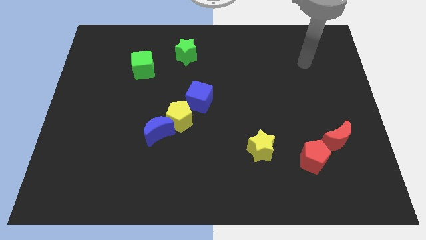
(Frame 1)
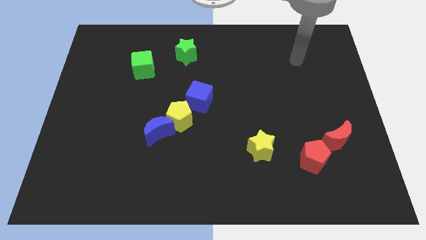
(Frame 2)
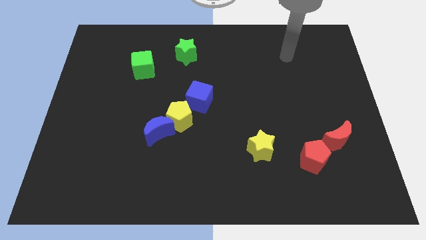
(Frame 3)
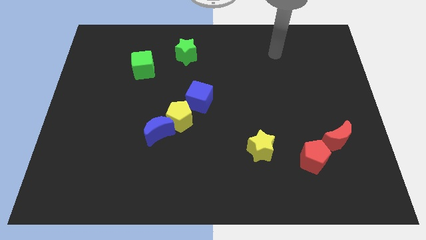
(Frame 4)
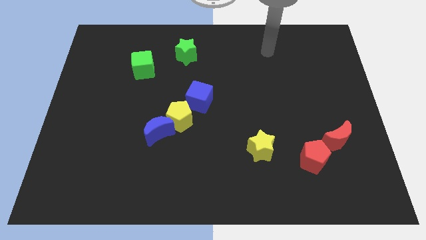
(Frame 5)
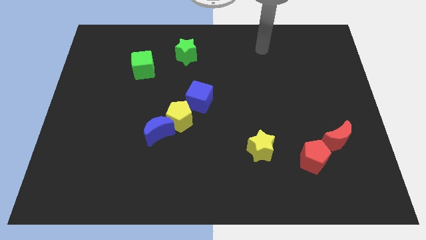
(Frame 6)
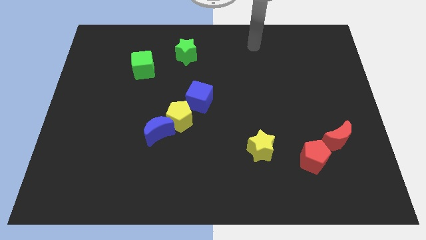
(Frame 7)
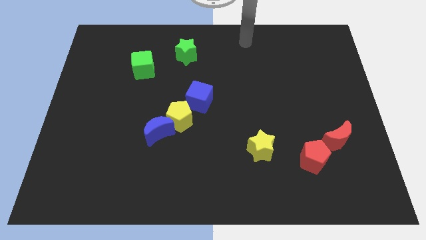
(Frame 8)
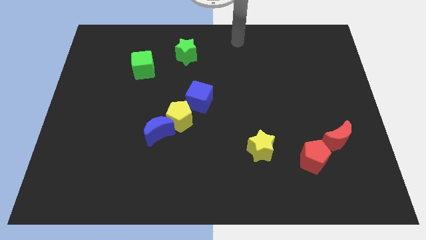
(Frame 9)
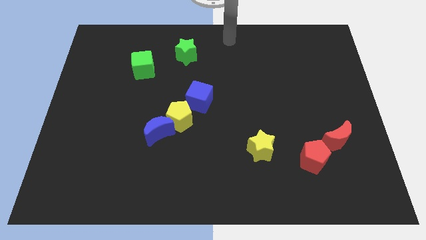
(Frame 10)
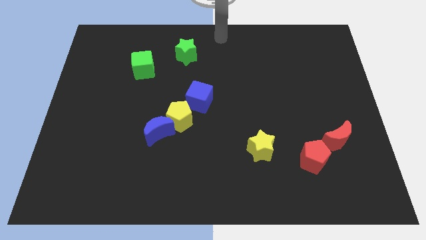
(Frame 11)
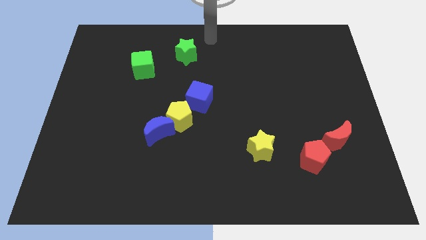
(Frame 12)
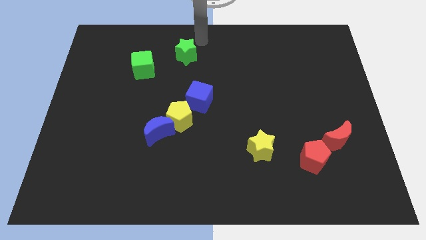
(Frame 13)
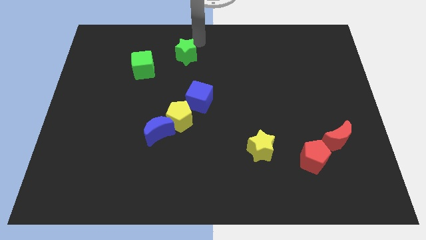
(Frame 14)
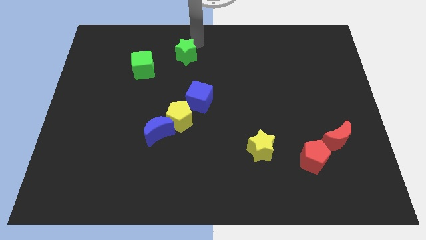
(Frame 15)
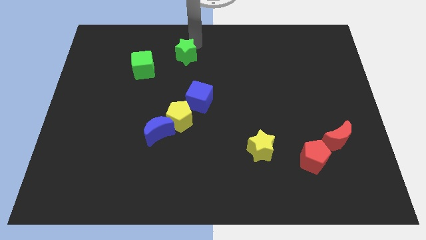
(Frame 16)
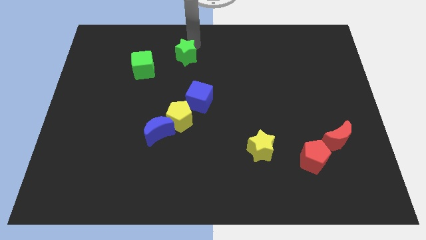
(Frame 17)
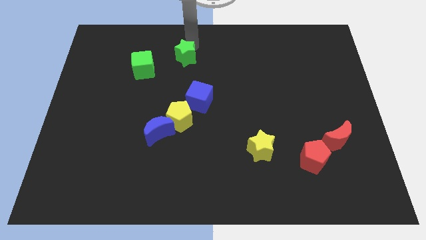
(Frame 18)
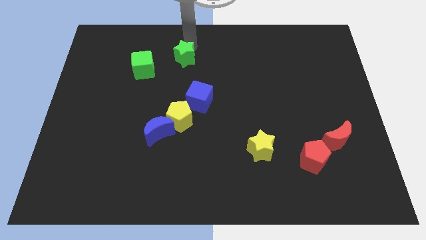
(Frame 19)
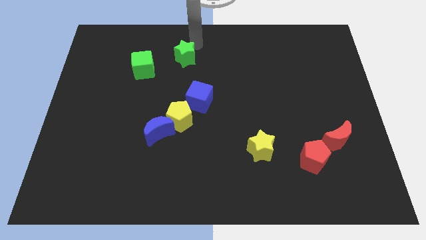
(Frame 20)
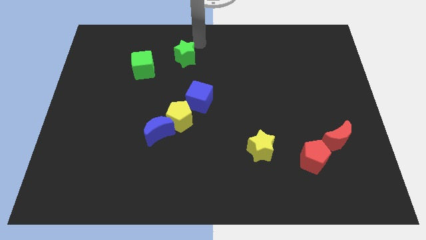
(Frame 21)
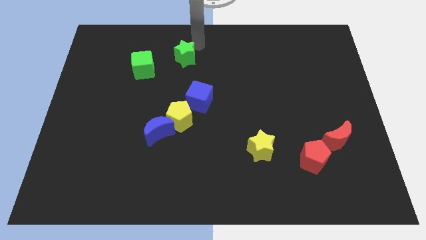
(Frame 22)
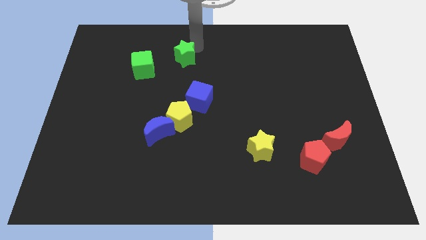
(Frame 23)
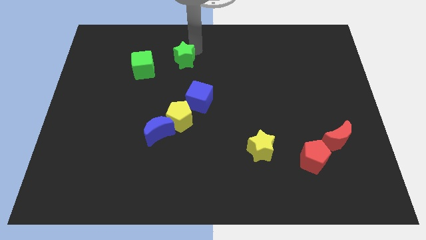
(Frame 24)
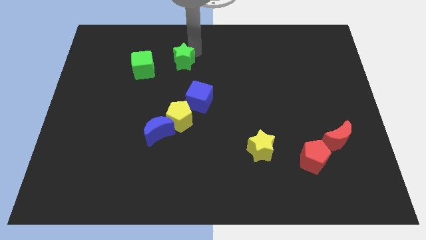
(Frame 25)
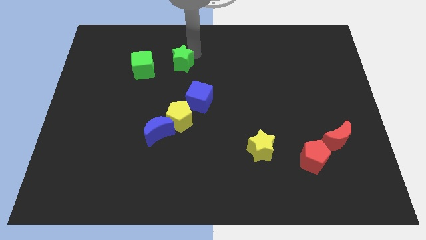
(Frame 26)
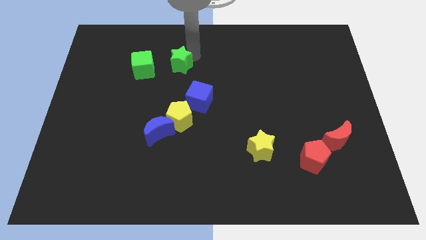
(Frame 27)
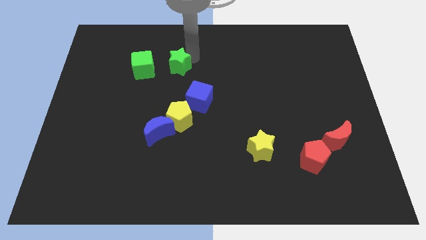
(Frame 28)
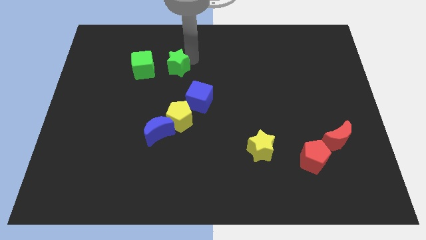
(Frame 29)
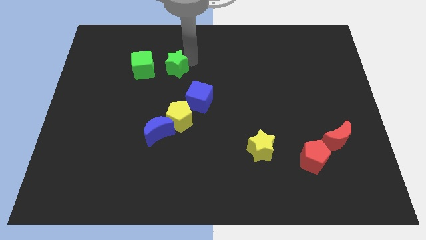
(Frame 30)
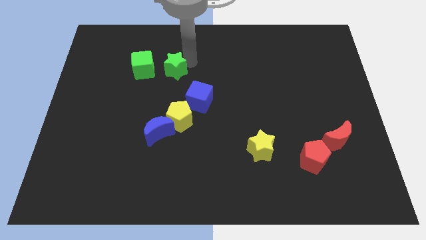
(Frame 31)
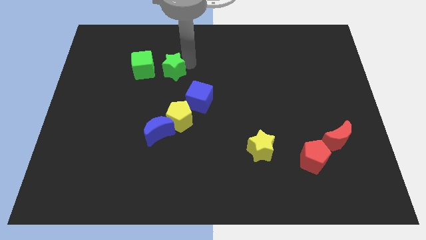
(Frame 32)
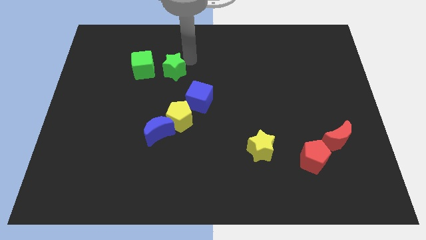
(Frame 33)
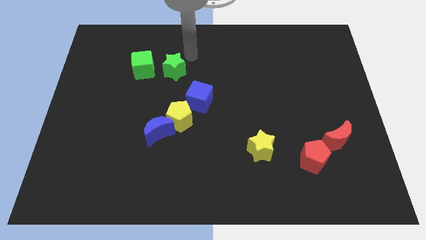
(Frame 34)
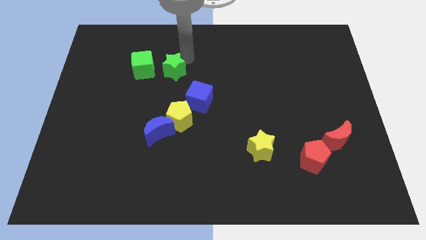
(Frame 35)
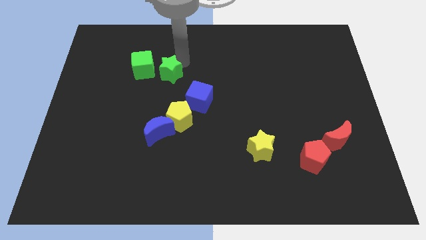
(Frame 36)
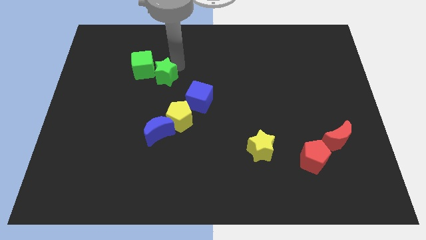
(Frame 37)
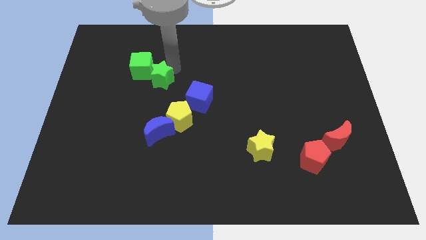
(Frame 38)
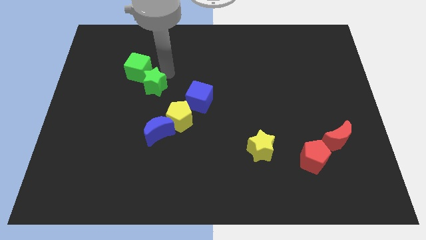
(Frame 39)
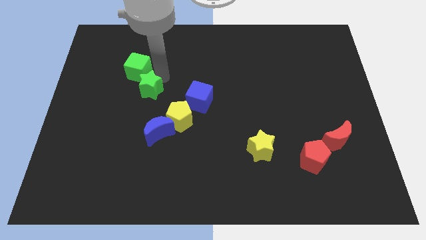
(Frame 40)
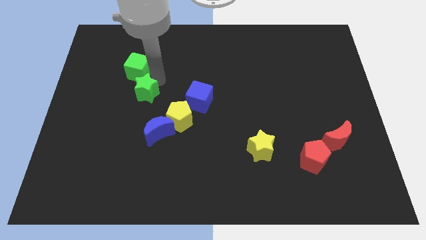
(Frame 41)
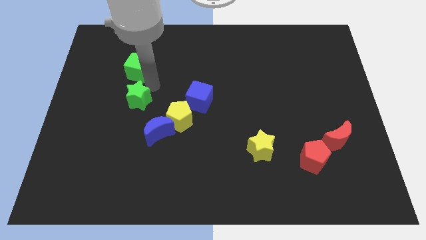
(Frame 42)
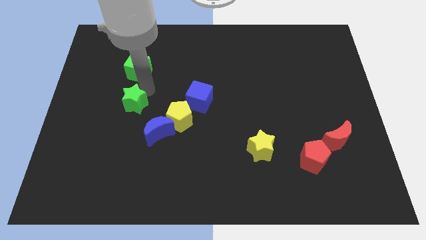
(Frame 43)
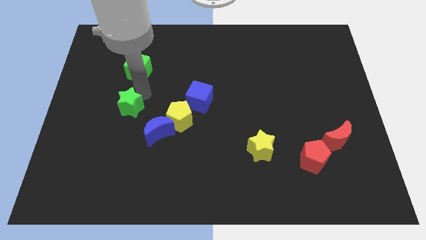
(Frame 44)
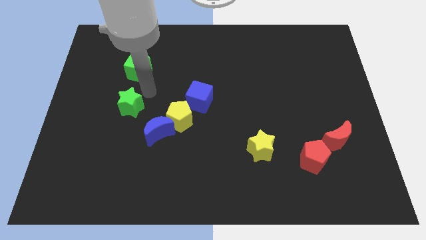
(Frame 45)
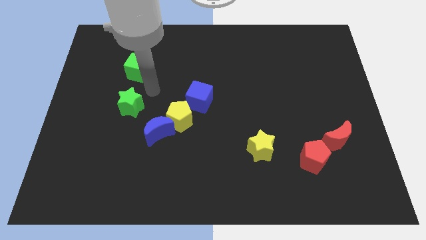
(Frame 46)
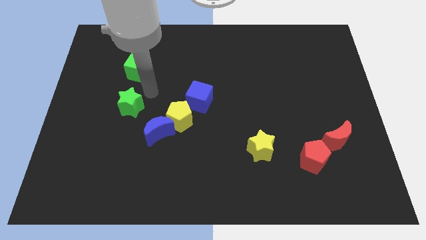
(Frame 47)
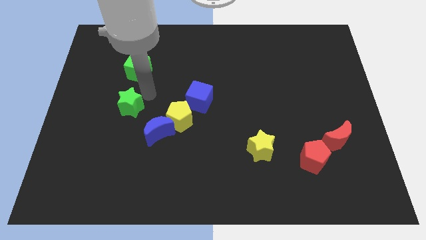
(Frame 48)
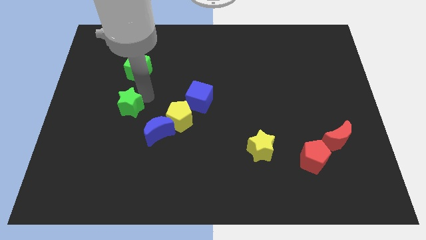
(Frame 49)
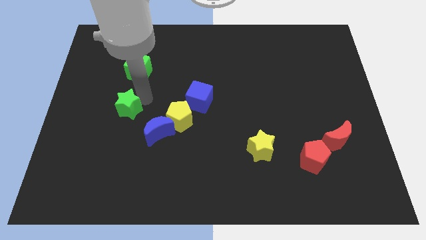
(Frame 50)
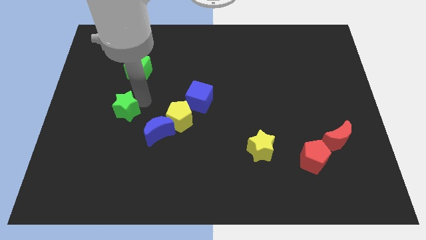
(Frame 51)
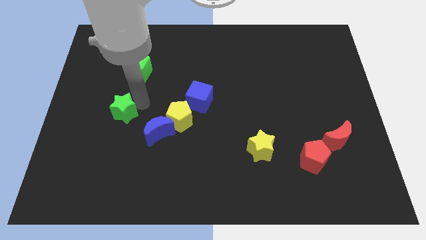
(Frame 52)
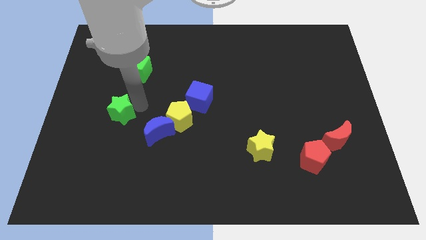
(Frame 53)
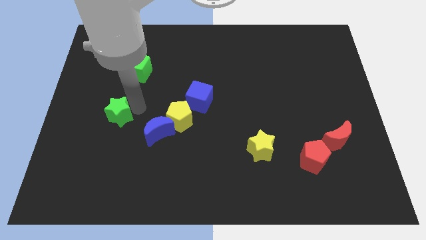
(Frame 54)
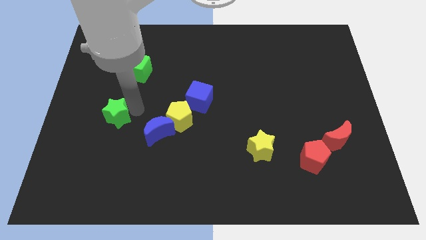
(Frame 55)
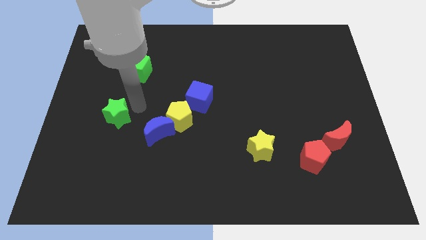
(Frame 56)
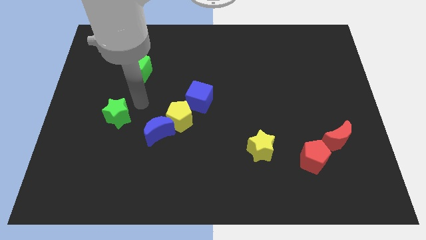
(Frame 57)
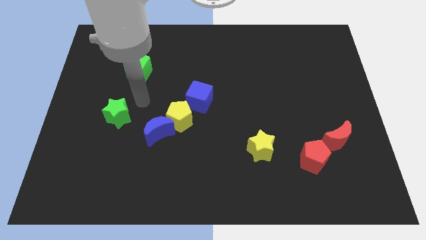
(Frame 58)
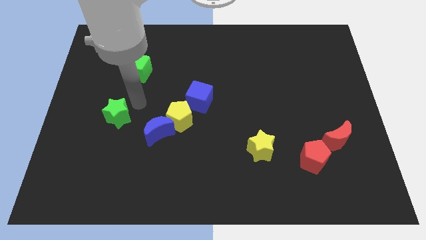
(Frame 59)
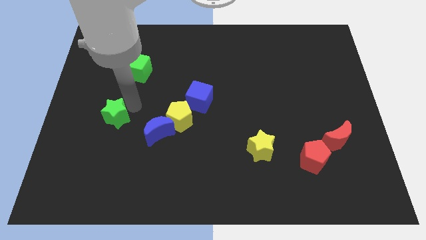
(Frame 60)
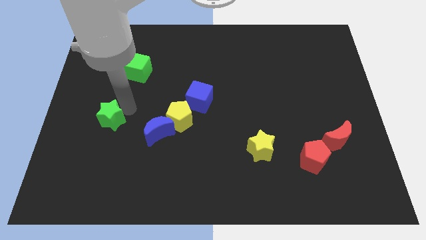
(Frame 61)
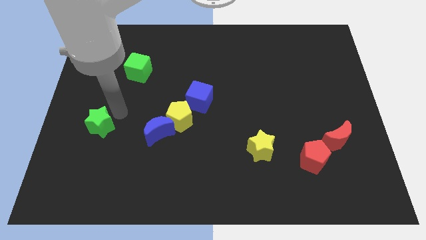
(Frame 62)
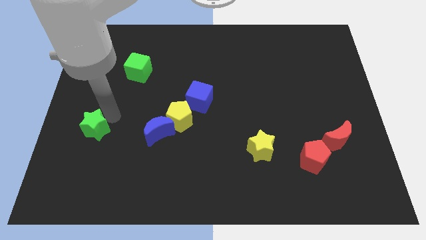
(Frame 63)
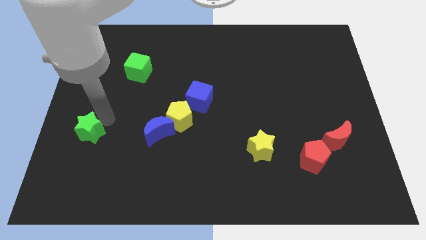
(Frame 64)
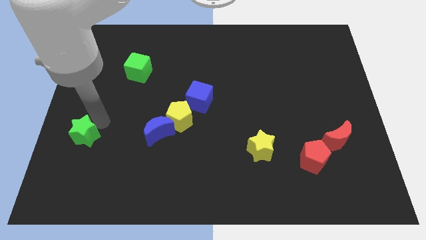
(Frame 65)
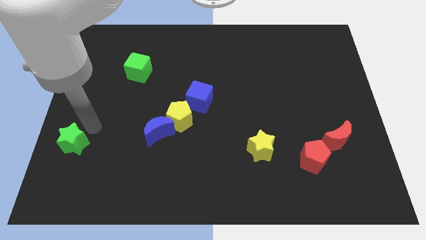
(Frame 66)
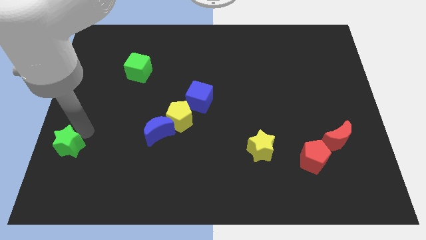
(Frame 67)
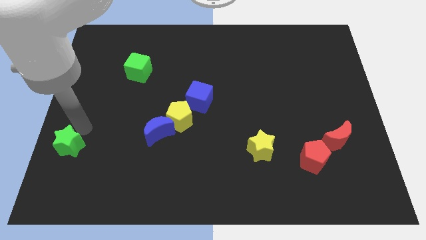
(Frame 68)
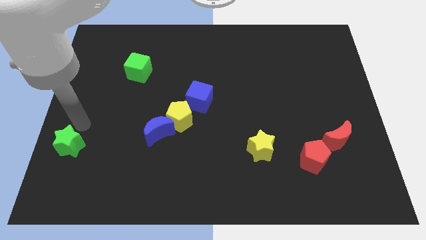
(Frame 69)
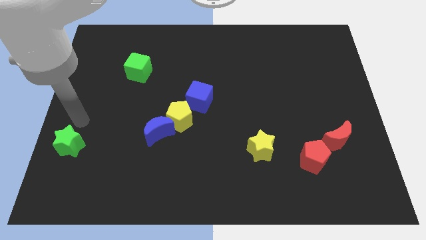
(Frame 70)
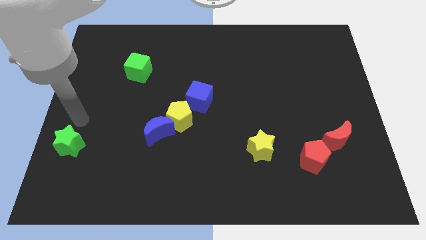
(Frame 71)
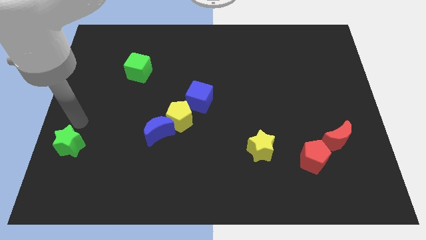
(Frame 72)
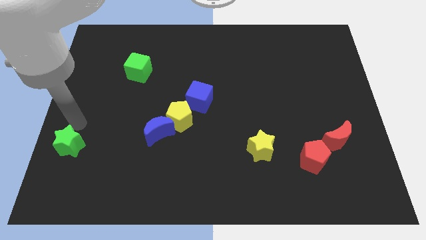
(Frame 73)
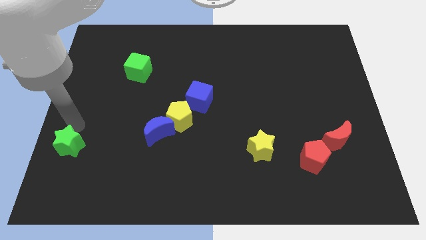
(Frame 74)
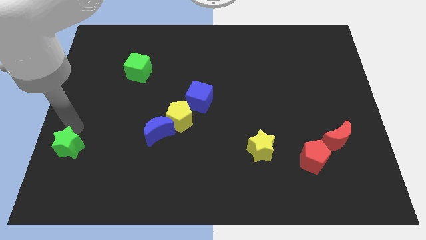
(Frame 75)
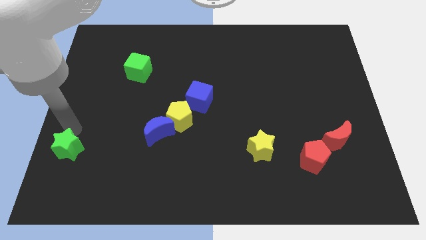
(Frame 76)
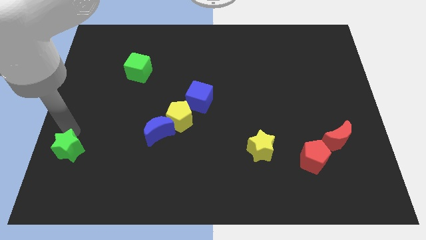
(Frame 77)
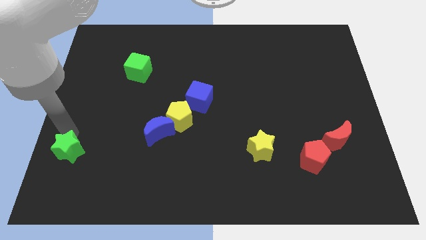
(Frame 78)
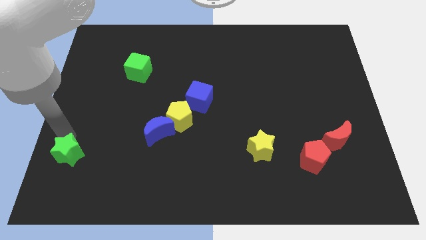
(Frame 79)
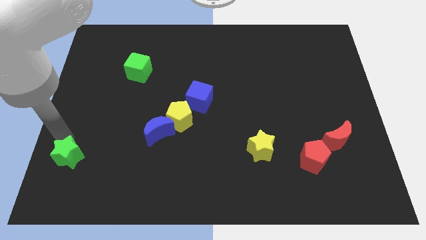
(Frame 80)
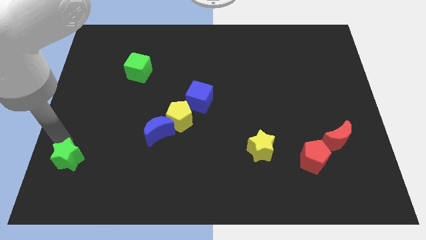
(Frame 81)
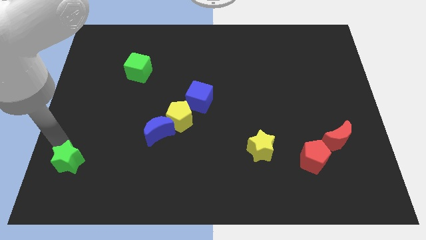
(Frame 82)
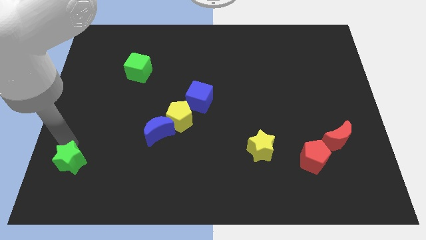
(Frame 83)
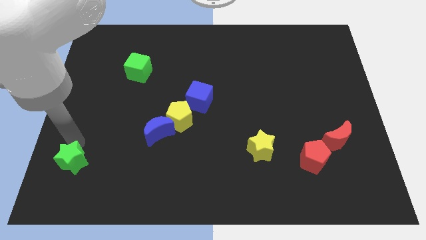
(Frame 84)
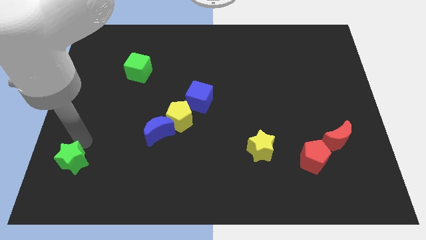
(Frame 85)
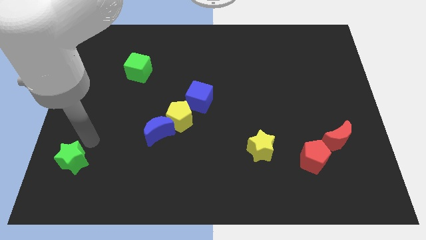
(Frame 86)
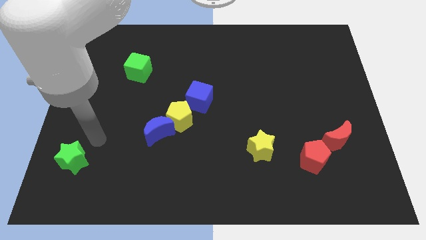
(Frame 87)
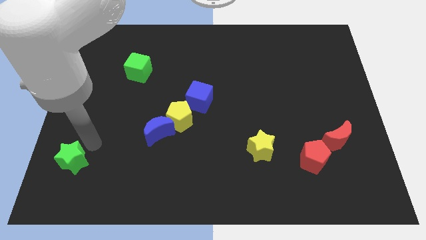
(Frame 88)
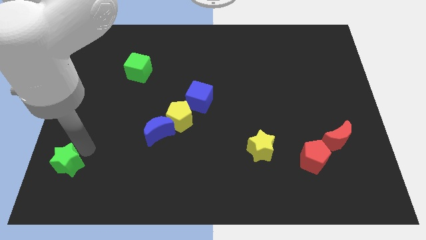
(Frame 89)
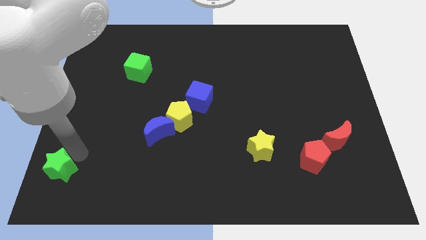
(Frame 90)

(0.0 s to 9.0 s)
put the green star to the bottom left
